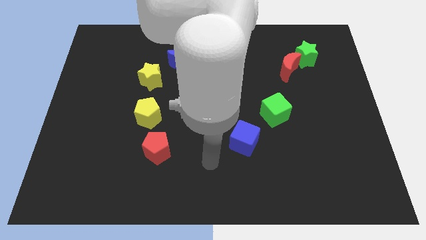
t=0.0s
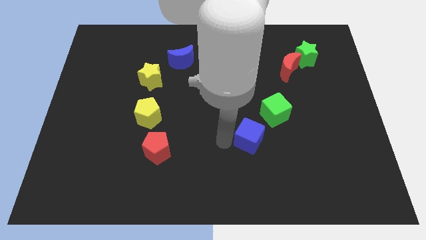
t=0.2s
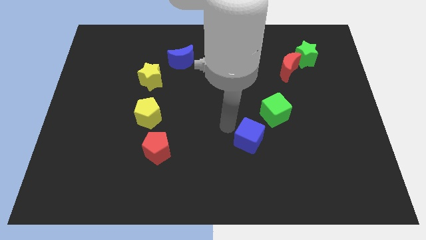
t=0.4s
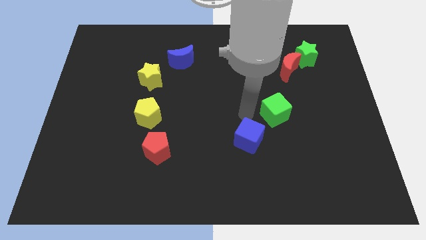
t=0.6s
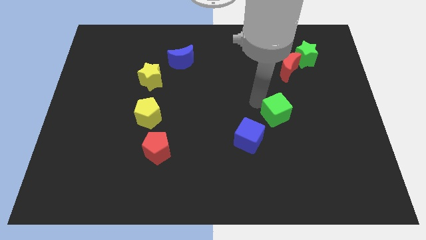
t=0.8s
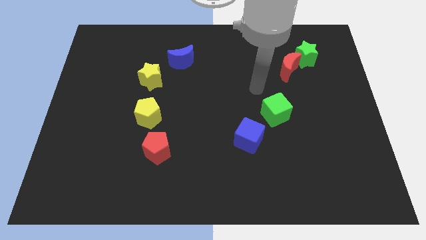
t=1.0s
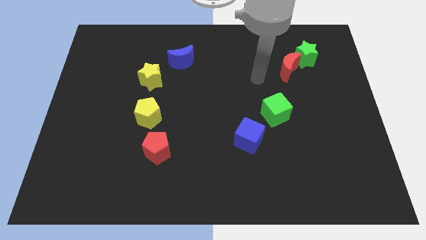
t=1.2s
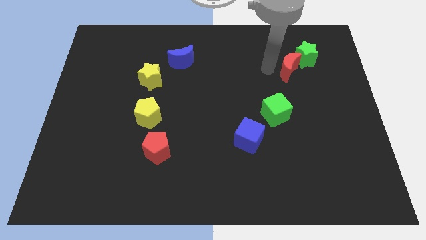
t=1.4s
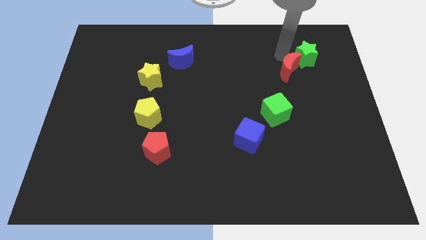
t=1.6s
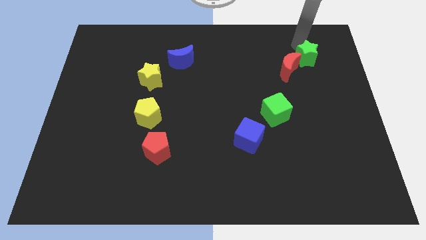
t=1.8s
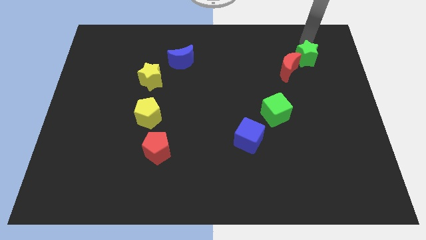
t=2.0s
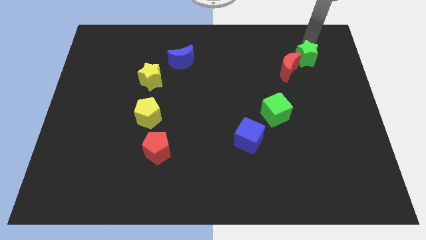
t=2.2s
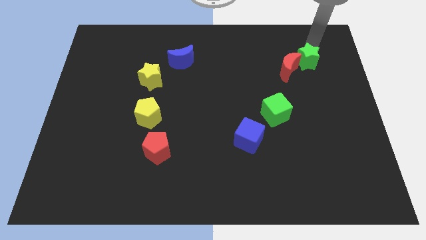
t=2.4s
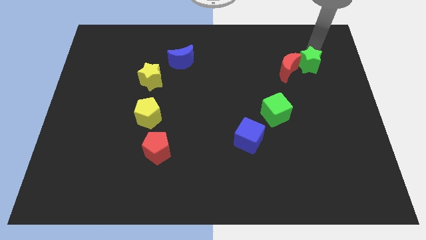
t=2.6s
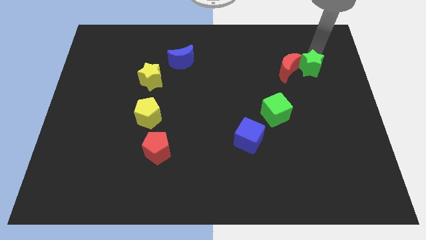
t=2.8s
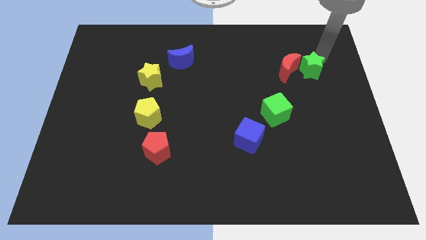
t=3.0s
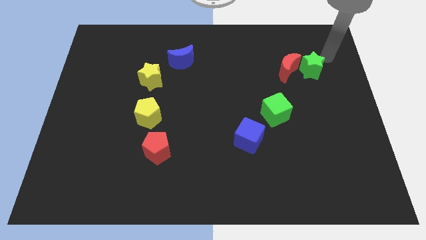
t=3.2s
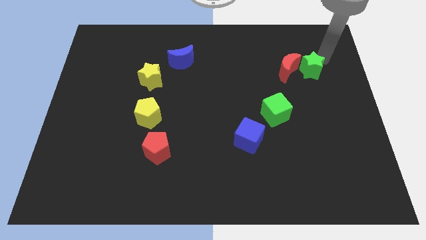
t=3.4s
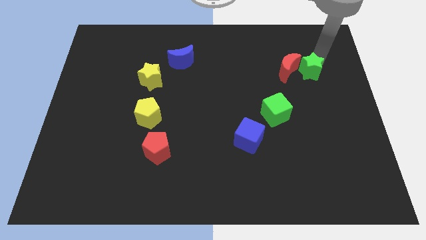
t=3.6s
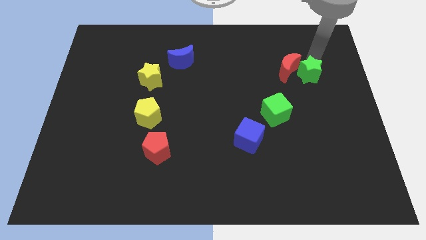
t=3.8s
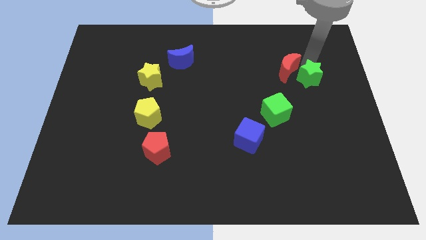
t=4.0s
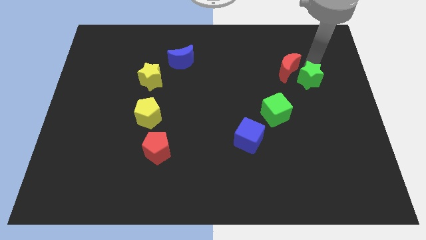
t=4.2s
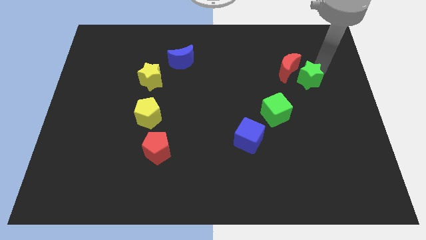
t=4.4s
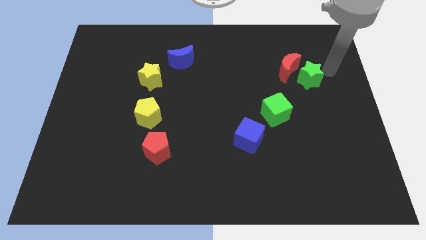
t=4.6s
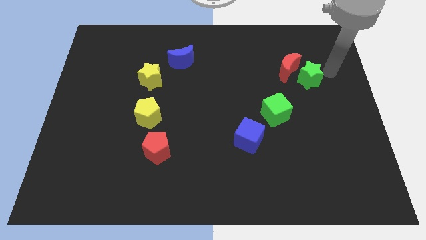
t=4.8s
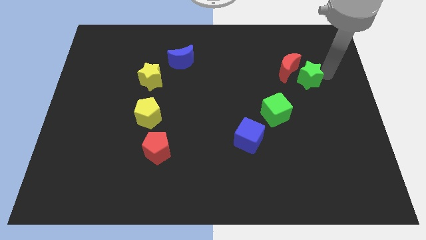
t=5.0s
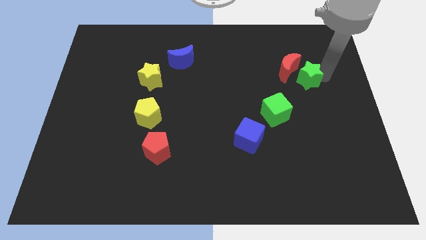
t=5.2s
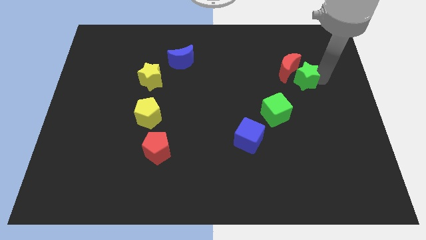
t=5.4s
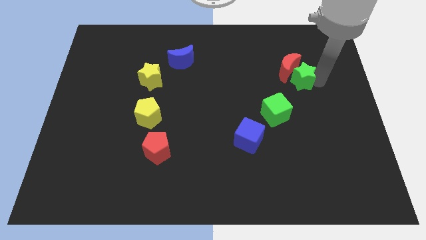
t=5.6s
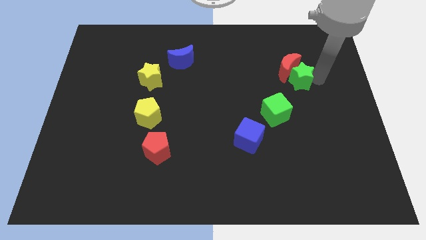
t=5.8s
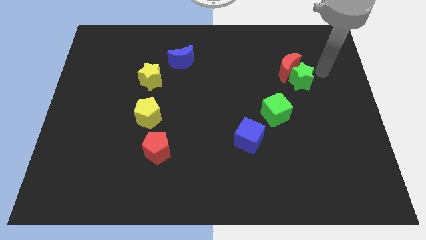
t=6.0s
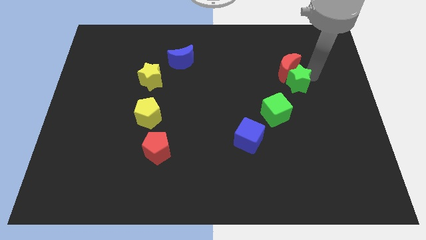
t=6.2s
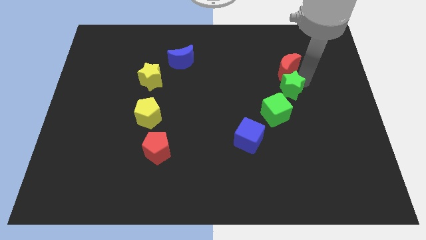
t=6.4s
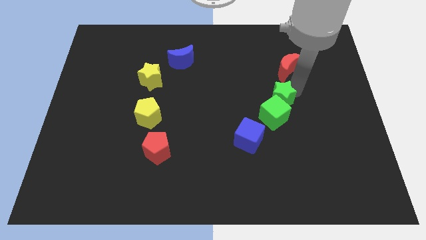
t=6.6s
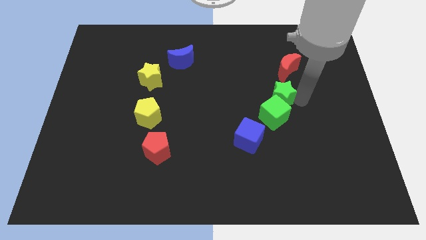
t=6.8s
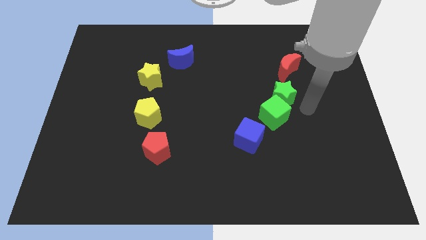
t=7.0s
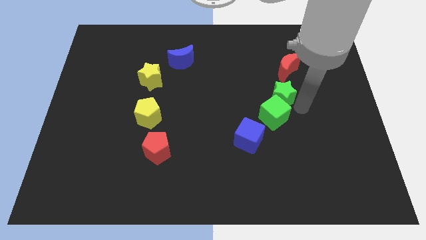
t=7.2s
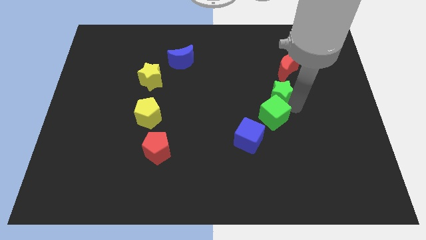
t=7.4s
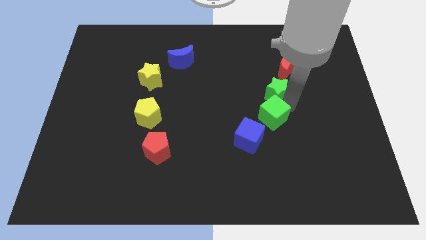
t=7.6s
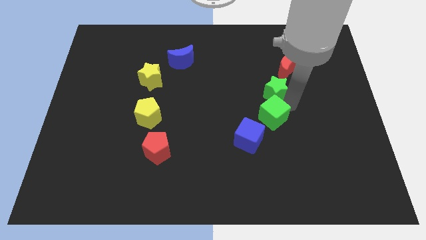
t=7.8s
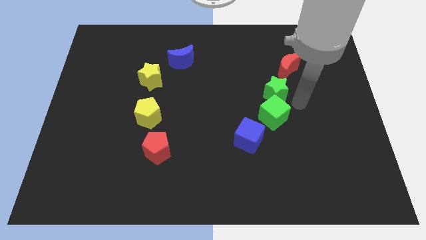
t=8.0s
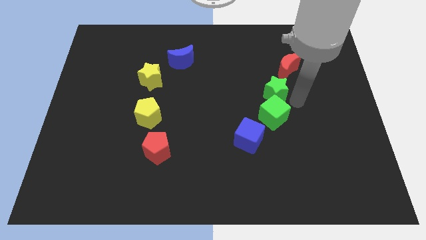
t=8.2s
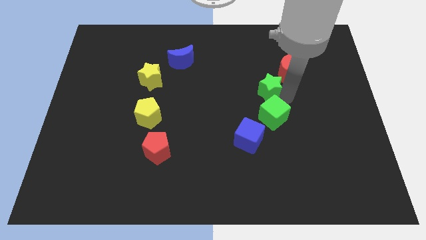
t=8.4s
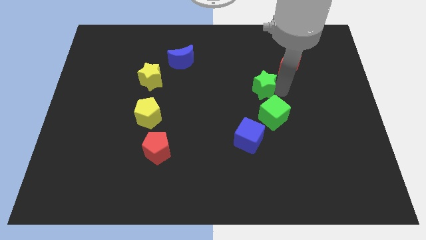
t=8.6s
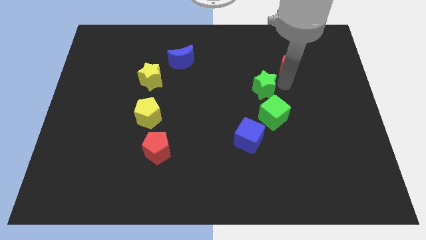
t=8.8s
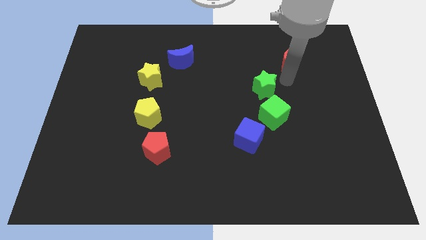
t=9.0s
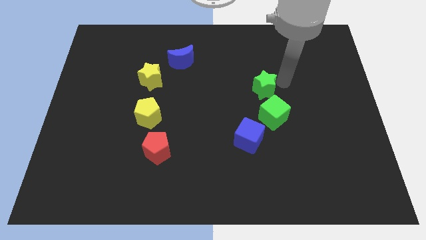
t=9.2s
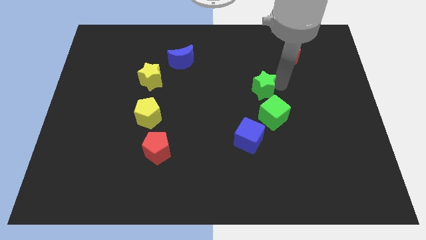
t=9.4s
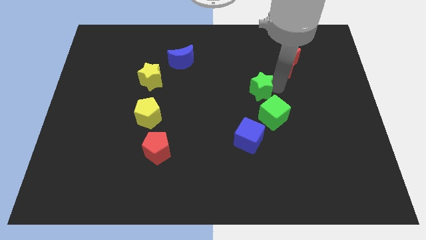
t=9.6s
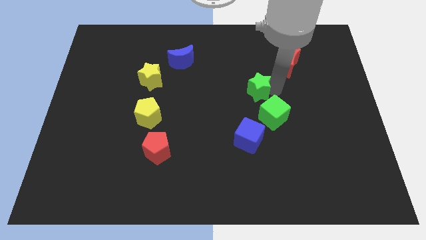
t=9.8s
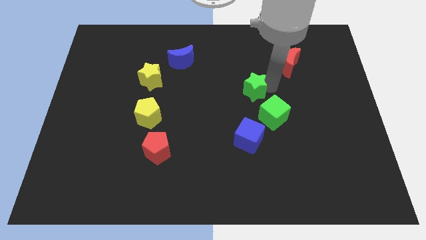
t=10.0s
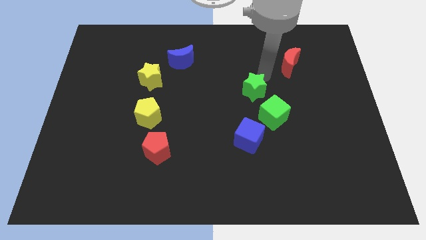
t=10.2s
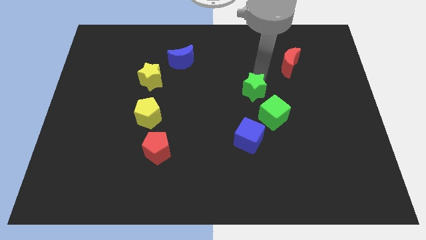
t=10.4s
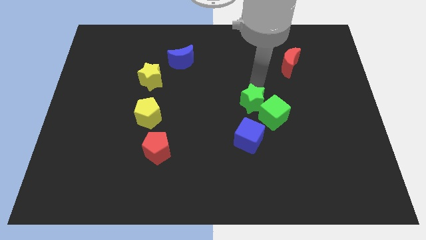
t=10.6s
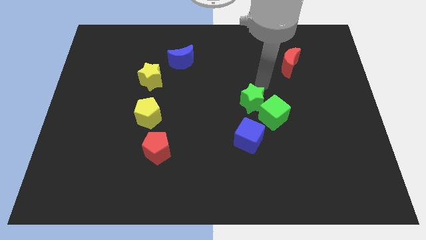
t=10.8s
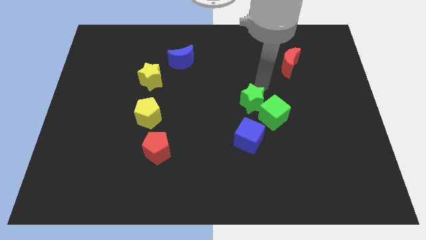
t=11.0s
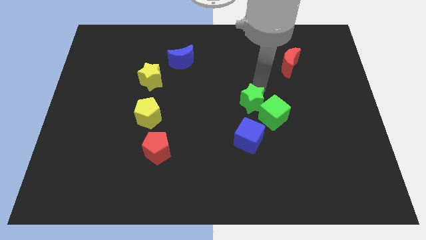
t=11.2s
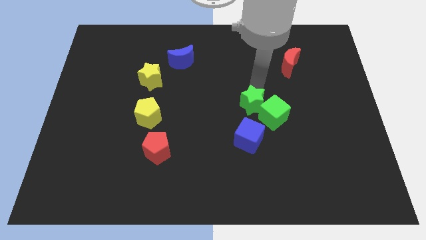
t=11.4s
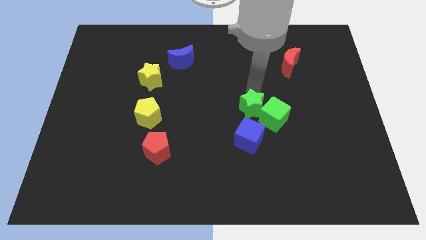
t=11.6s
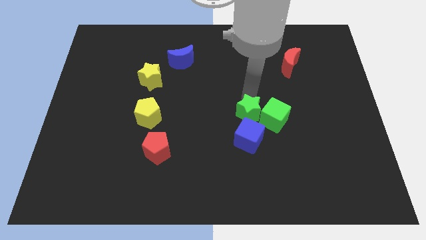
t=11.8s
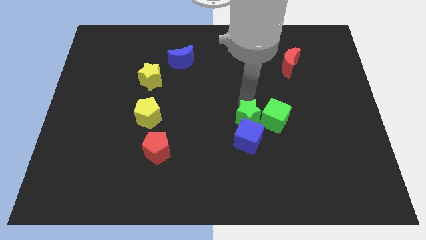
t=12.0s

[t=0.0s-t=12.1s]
push the green star to the blue cube

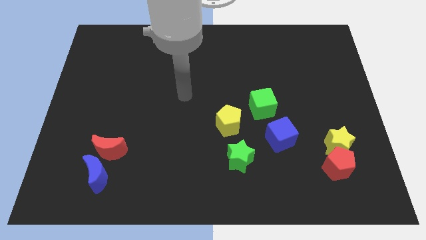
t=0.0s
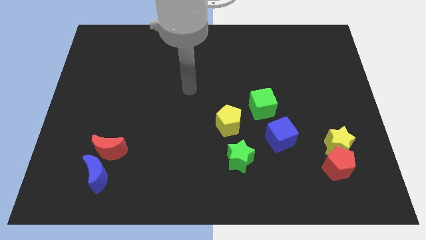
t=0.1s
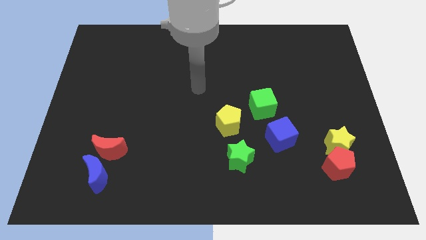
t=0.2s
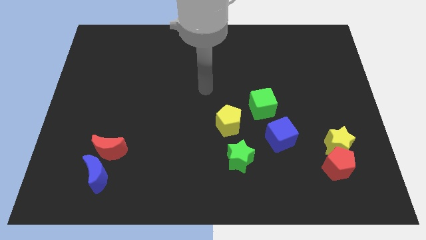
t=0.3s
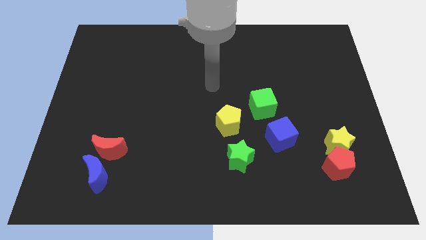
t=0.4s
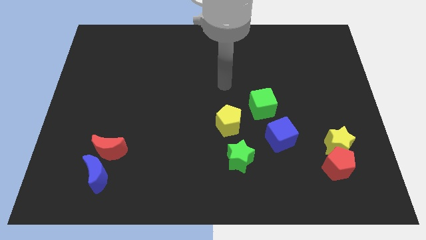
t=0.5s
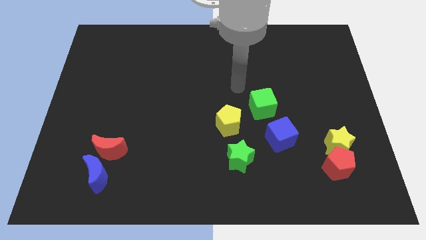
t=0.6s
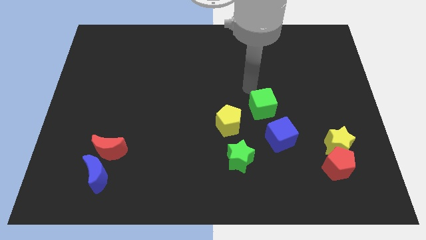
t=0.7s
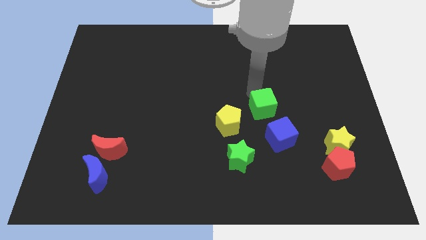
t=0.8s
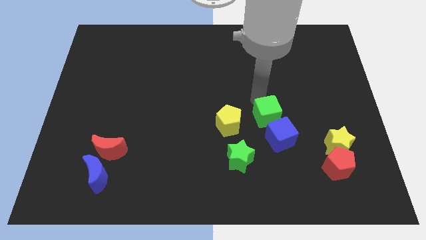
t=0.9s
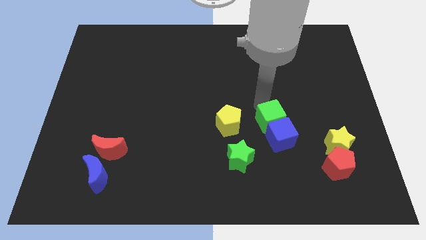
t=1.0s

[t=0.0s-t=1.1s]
slide the green cube next to the blue cube
